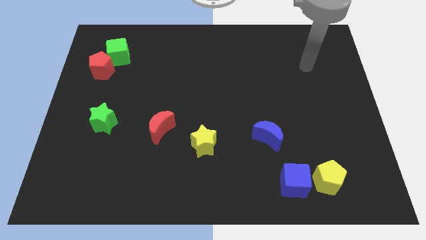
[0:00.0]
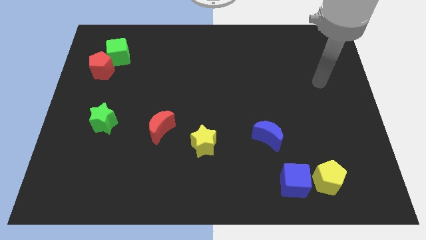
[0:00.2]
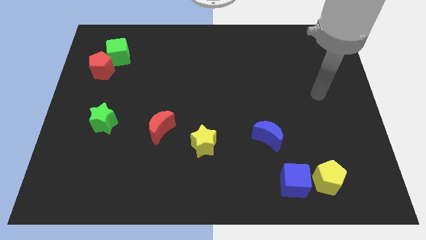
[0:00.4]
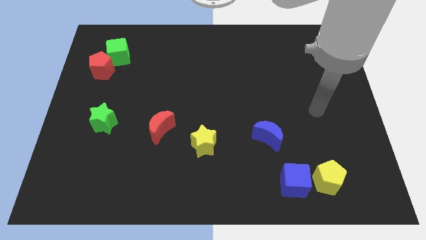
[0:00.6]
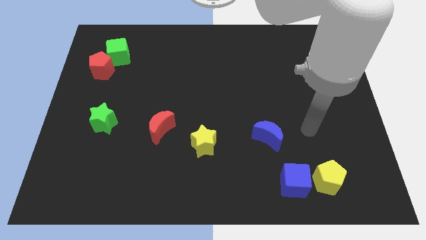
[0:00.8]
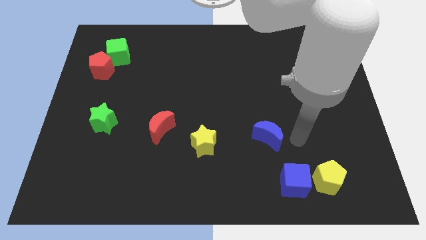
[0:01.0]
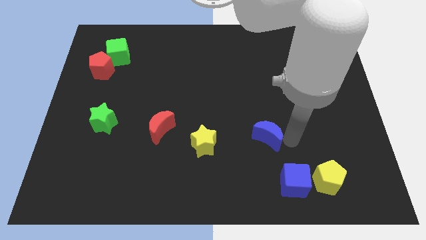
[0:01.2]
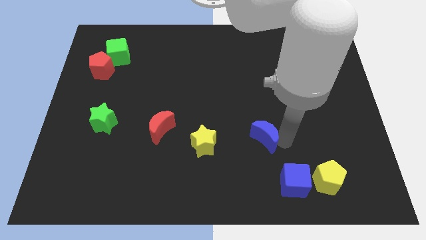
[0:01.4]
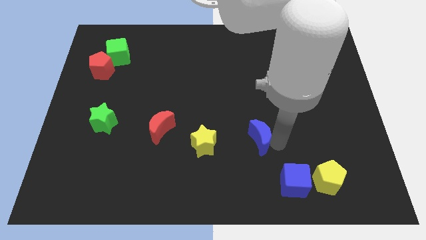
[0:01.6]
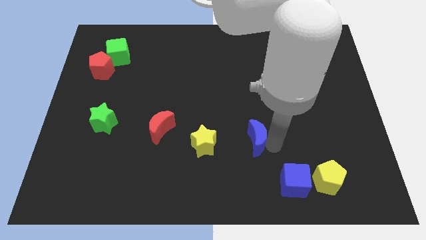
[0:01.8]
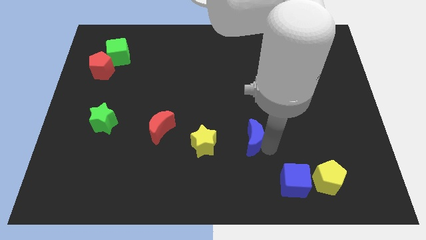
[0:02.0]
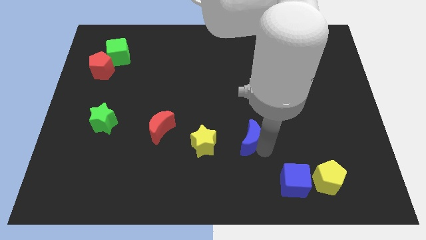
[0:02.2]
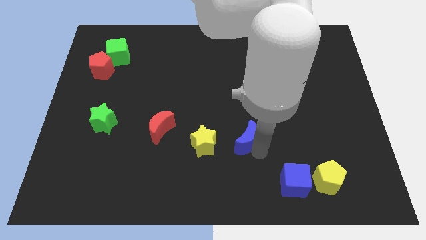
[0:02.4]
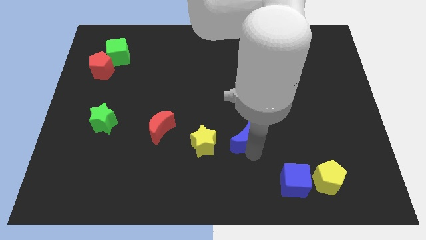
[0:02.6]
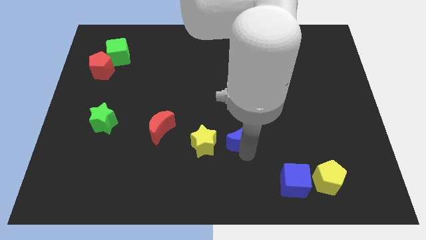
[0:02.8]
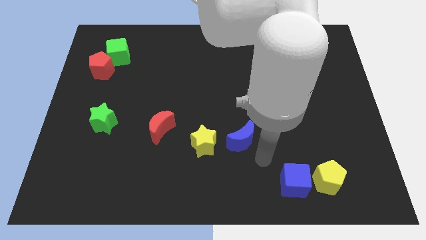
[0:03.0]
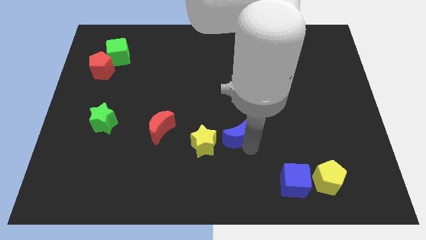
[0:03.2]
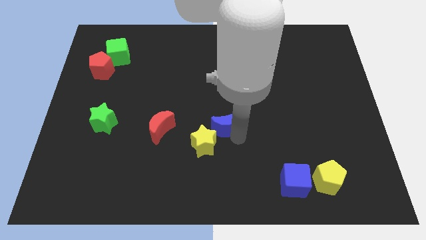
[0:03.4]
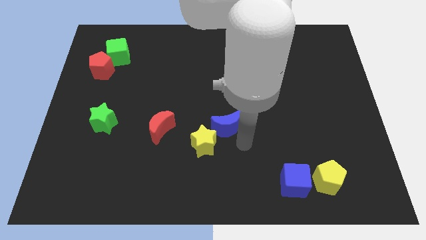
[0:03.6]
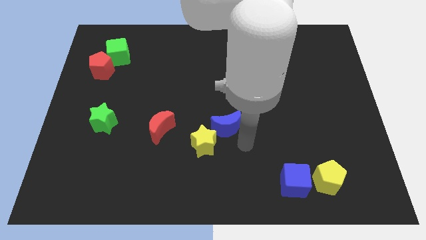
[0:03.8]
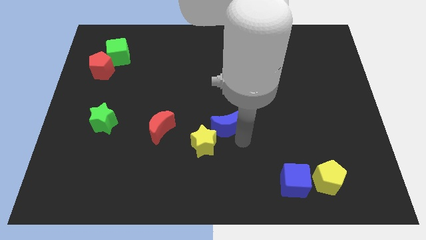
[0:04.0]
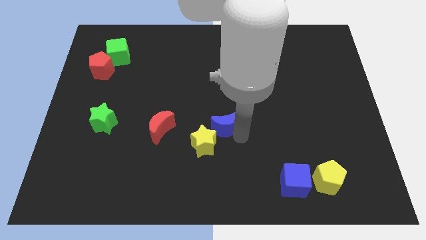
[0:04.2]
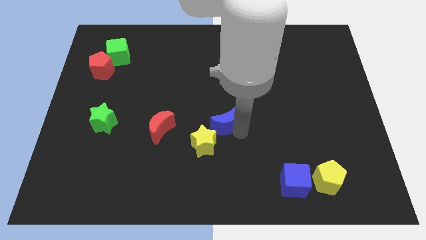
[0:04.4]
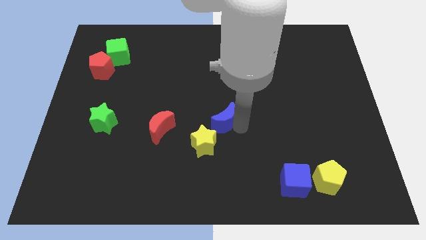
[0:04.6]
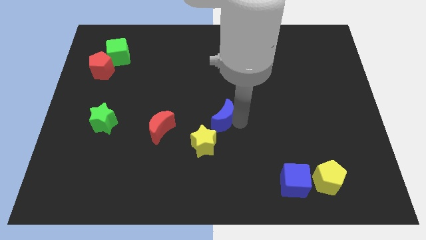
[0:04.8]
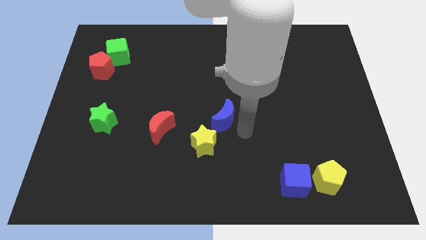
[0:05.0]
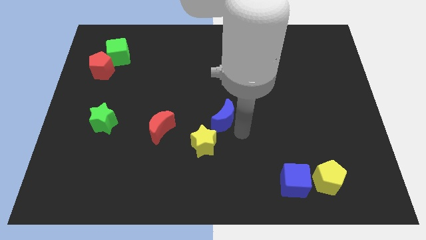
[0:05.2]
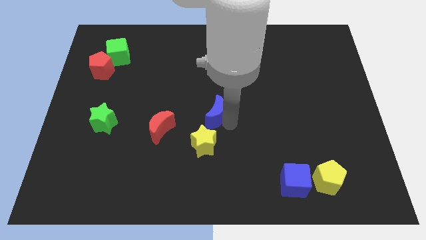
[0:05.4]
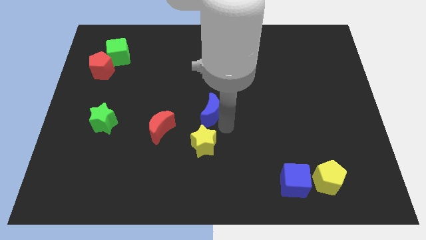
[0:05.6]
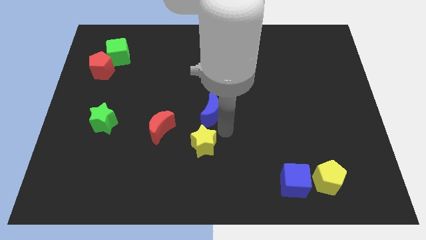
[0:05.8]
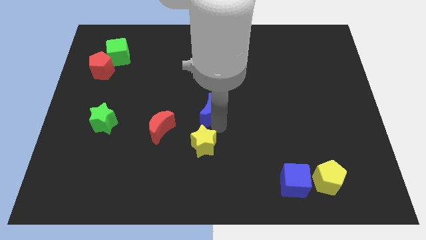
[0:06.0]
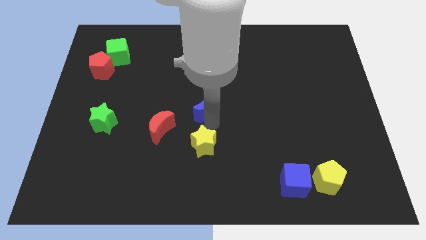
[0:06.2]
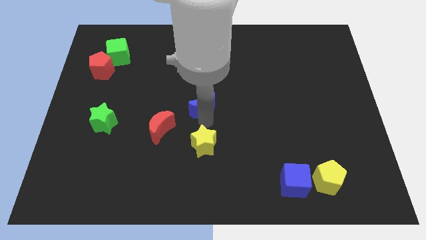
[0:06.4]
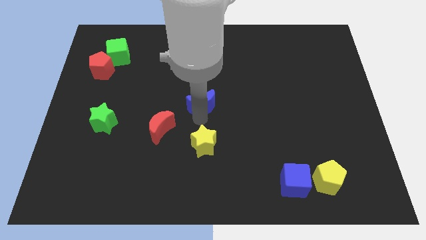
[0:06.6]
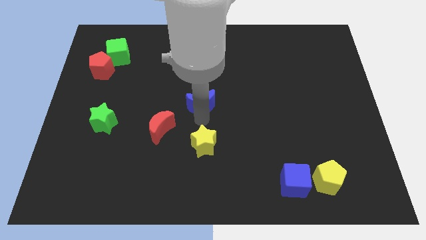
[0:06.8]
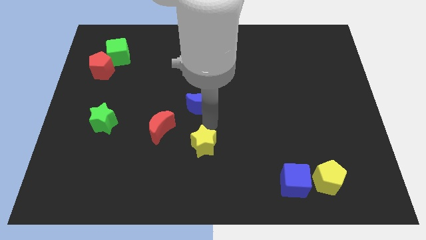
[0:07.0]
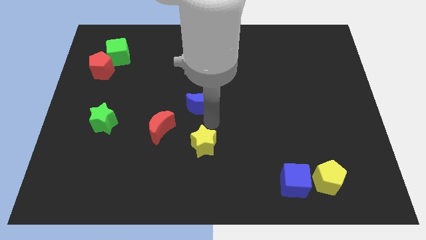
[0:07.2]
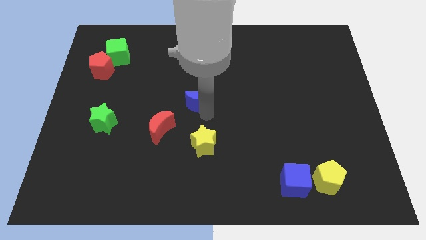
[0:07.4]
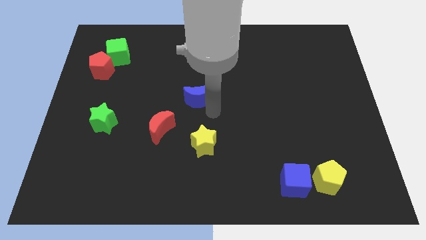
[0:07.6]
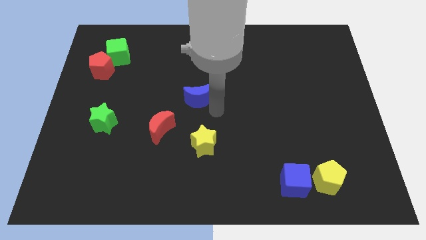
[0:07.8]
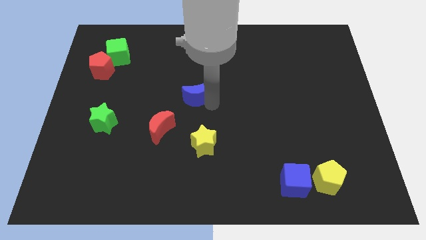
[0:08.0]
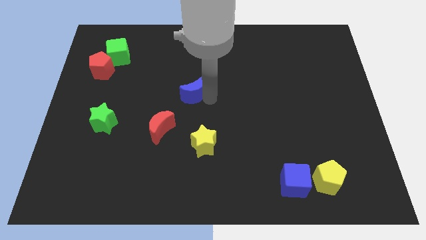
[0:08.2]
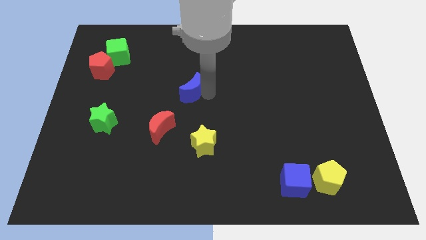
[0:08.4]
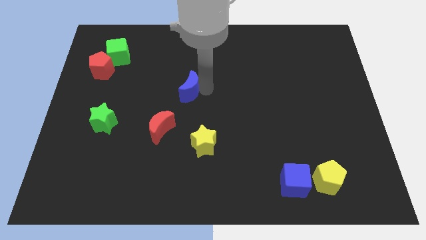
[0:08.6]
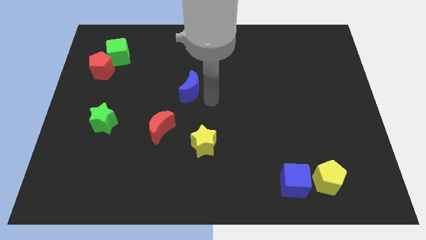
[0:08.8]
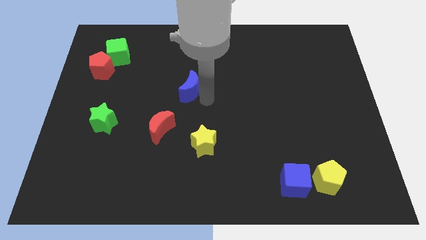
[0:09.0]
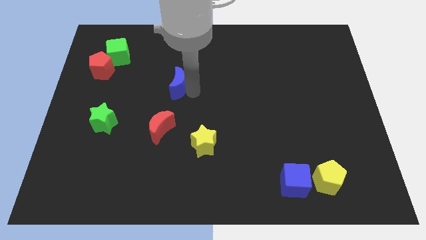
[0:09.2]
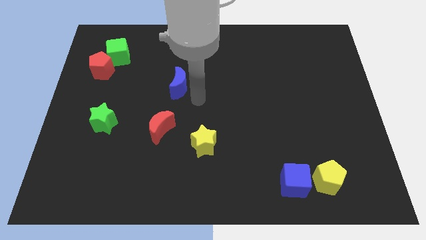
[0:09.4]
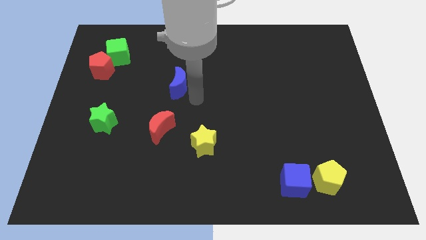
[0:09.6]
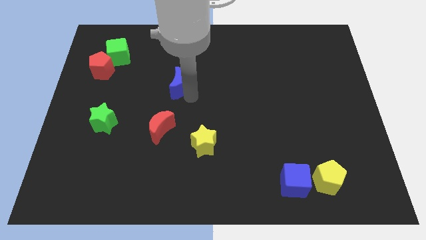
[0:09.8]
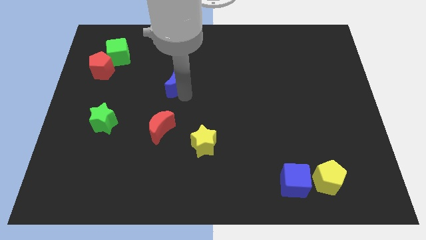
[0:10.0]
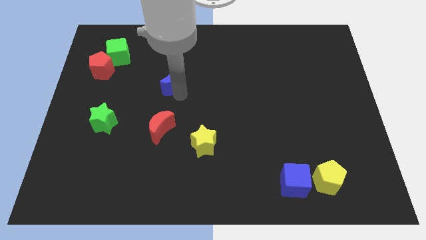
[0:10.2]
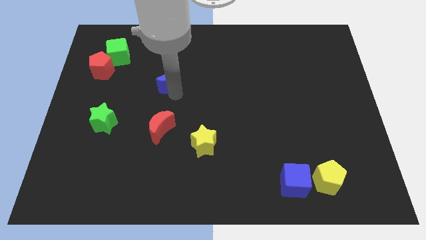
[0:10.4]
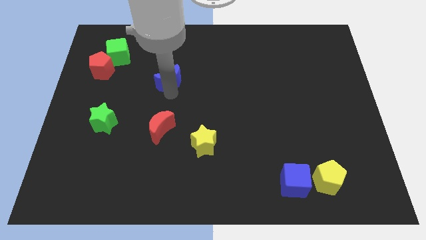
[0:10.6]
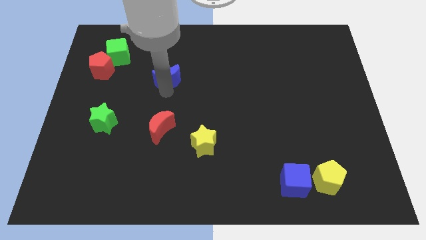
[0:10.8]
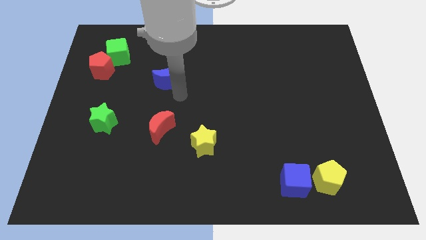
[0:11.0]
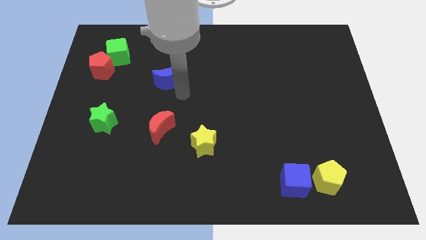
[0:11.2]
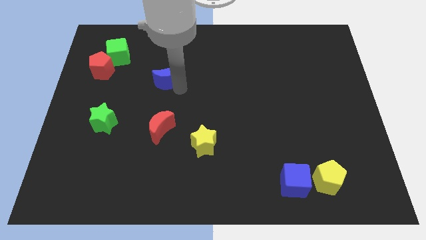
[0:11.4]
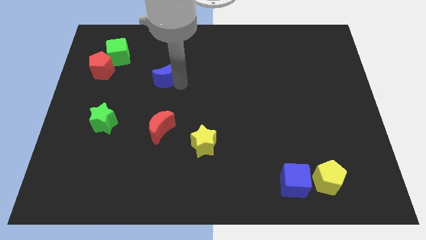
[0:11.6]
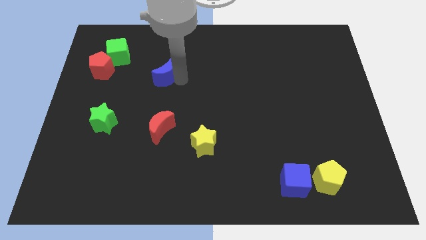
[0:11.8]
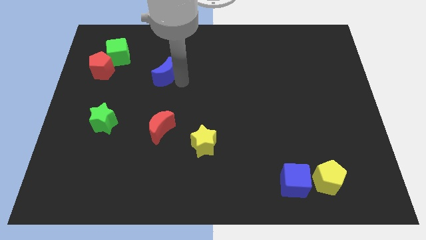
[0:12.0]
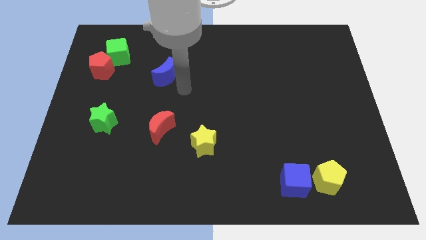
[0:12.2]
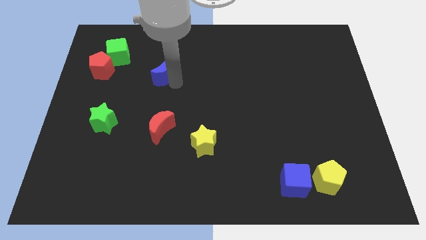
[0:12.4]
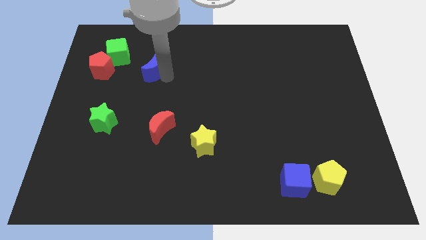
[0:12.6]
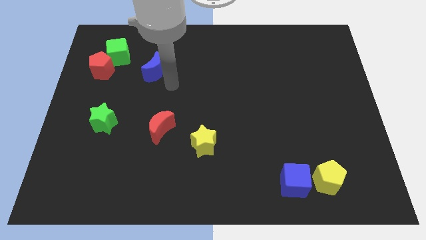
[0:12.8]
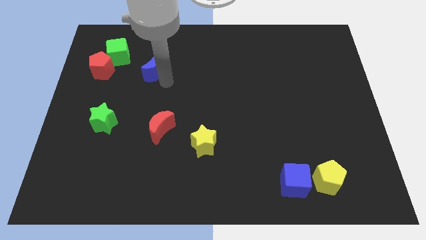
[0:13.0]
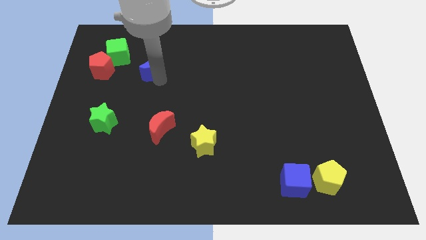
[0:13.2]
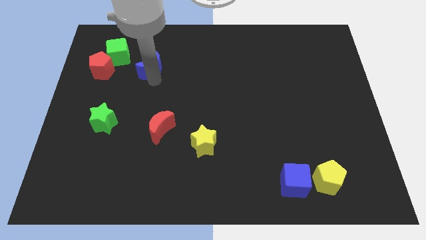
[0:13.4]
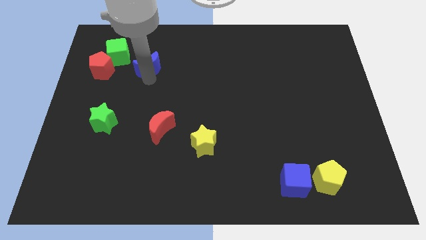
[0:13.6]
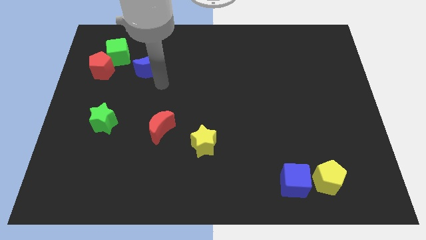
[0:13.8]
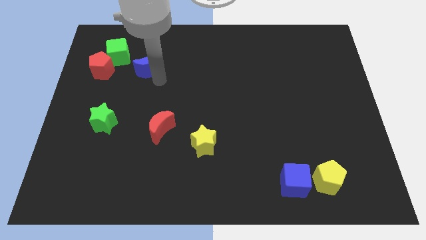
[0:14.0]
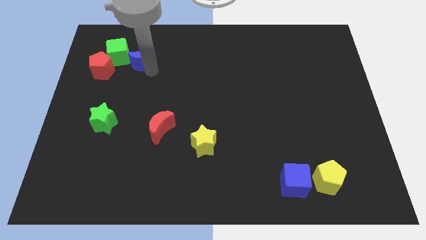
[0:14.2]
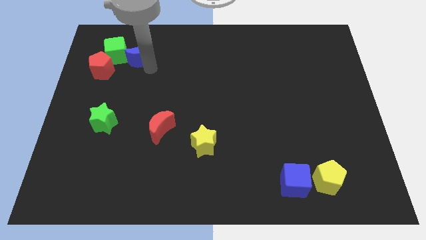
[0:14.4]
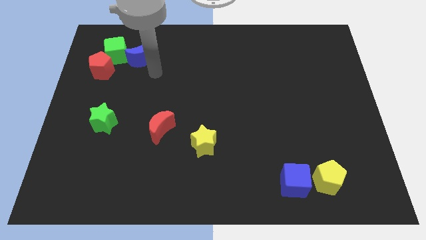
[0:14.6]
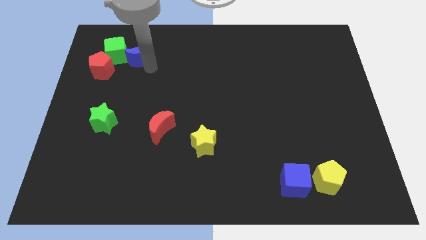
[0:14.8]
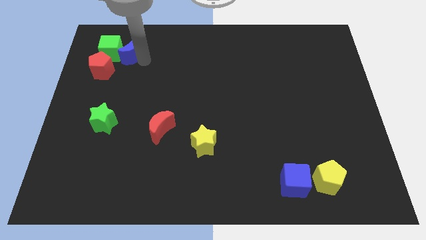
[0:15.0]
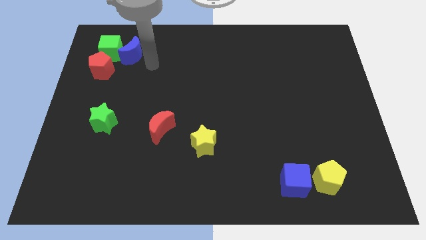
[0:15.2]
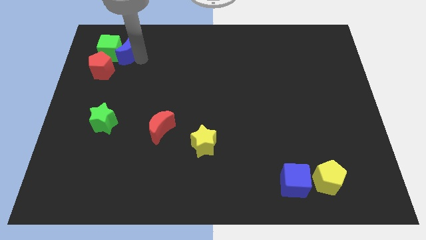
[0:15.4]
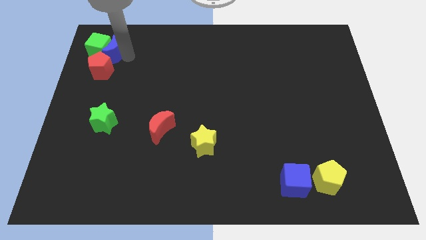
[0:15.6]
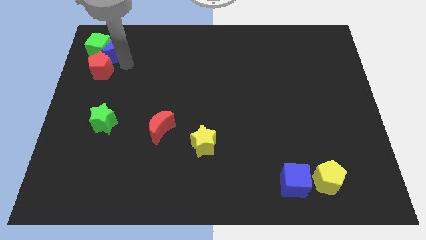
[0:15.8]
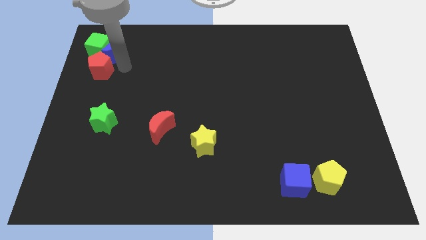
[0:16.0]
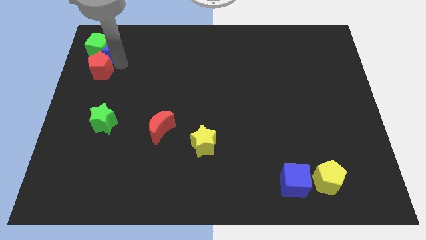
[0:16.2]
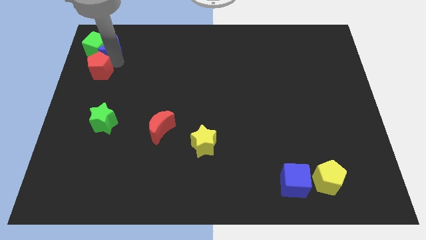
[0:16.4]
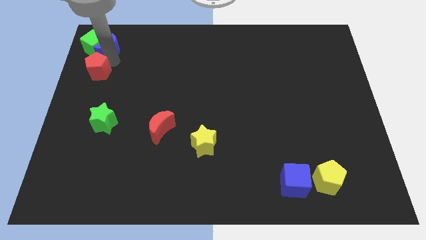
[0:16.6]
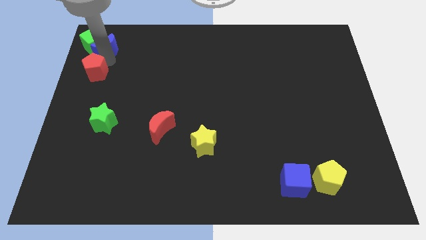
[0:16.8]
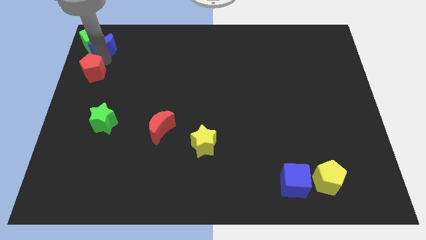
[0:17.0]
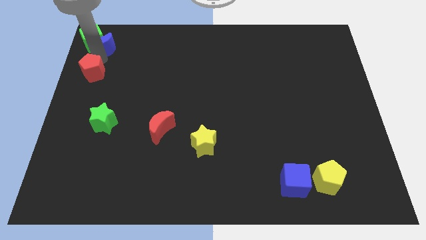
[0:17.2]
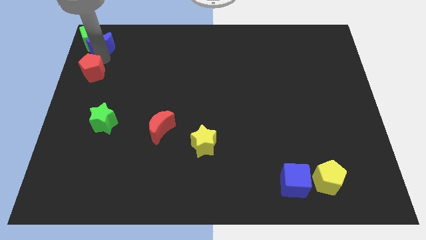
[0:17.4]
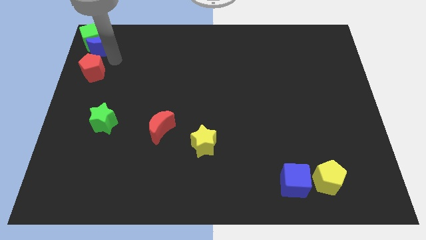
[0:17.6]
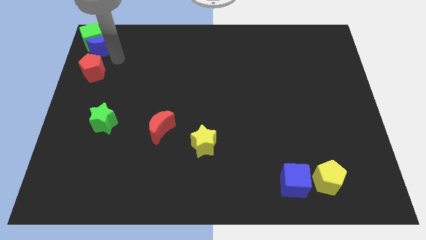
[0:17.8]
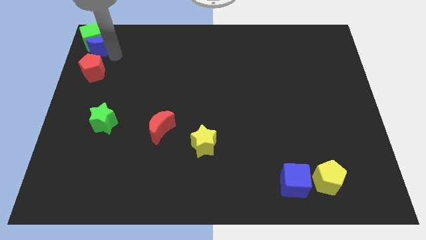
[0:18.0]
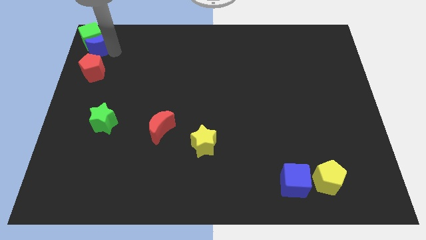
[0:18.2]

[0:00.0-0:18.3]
slide the blue moon to the top left corner
